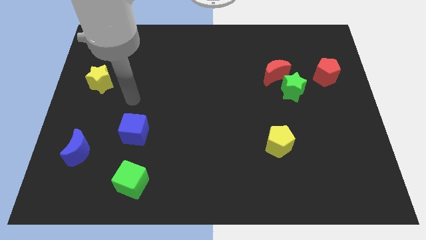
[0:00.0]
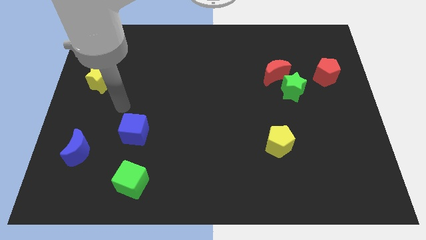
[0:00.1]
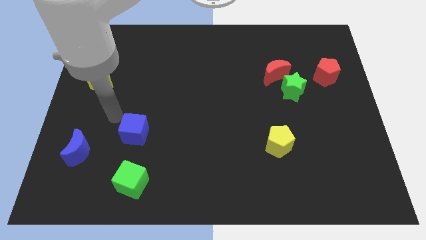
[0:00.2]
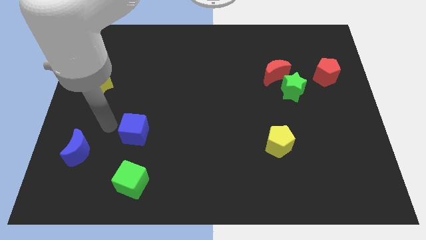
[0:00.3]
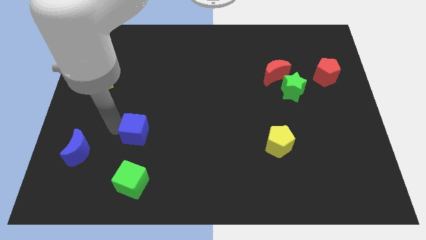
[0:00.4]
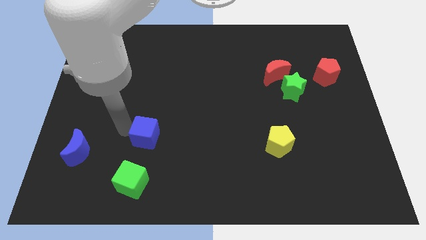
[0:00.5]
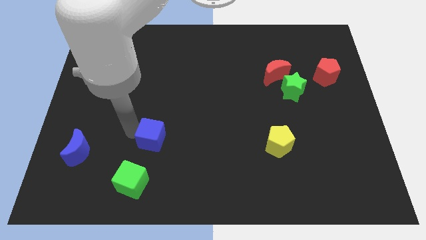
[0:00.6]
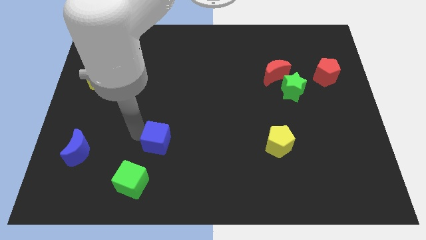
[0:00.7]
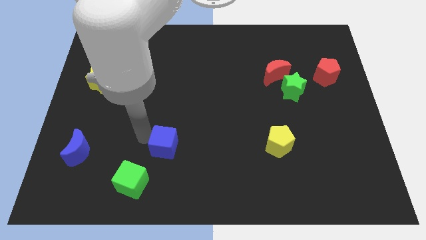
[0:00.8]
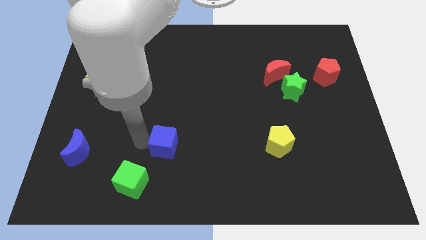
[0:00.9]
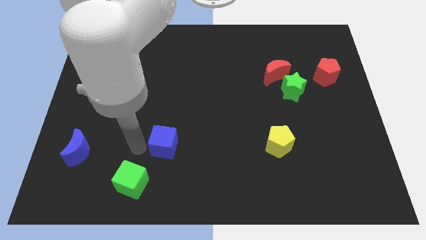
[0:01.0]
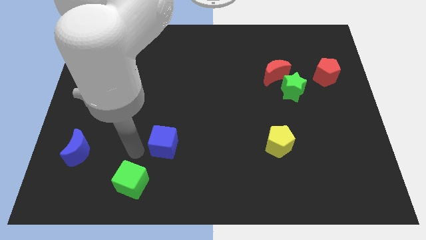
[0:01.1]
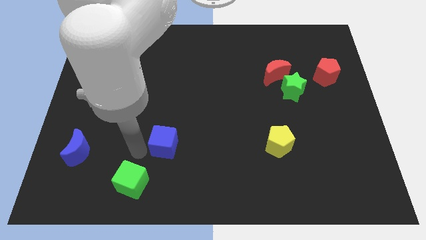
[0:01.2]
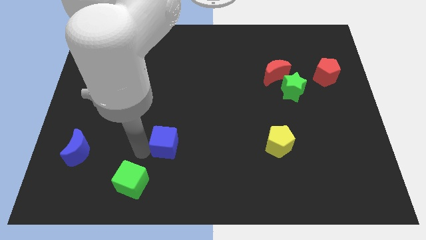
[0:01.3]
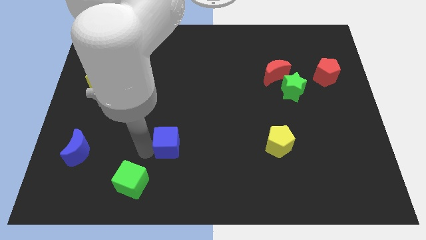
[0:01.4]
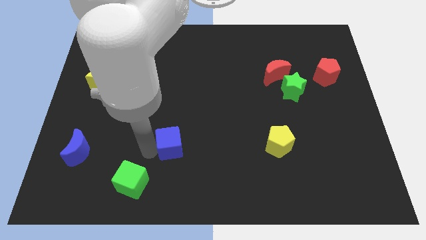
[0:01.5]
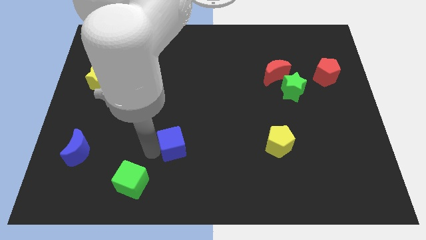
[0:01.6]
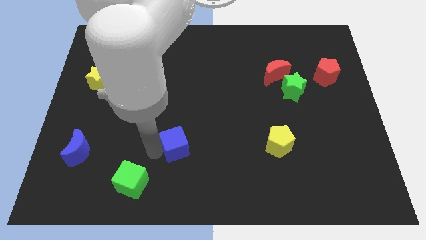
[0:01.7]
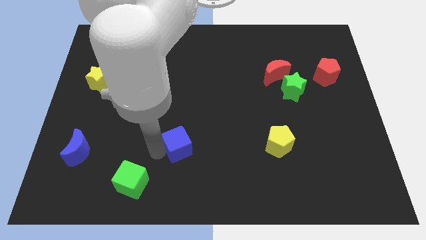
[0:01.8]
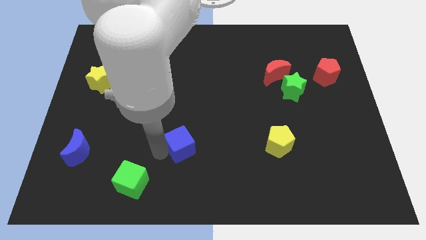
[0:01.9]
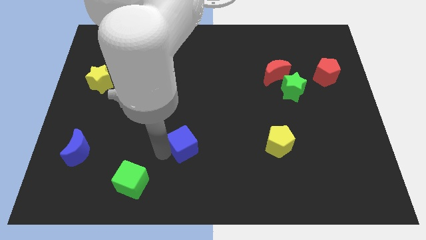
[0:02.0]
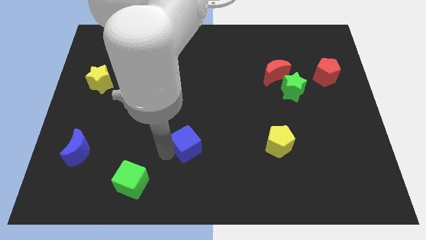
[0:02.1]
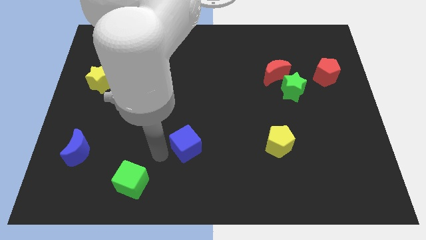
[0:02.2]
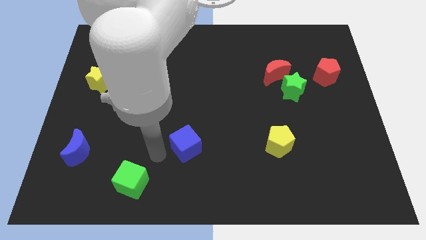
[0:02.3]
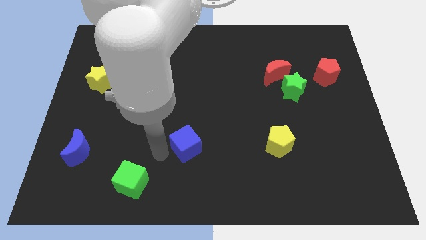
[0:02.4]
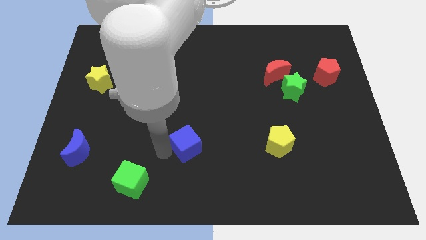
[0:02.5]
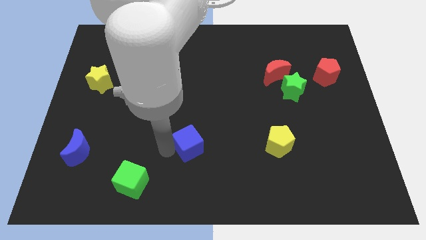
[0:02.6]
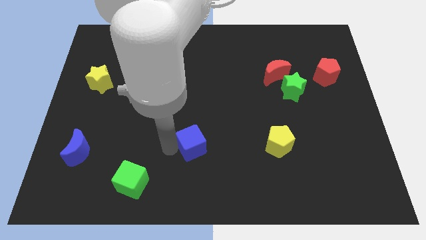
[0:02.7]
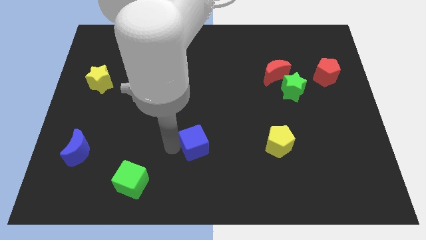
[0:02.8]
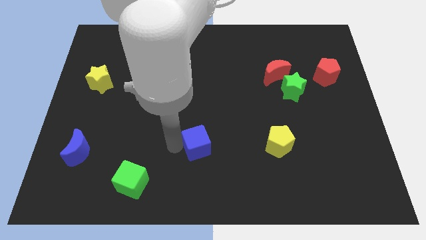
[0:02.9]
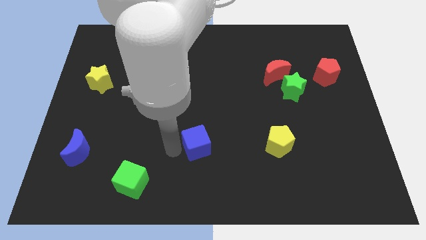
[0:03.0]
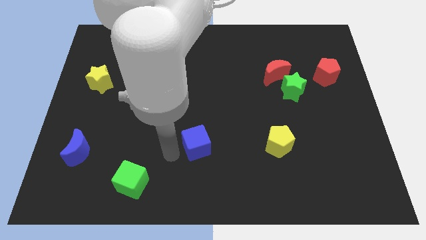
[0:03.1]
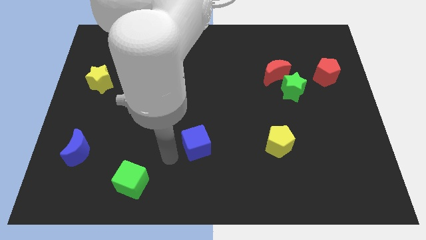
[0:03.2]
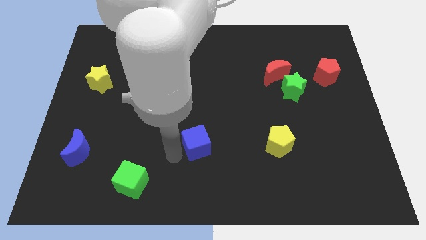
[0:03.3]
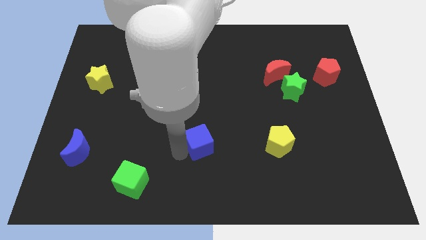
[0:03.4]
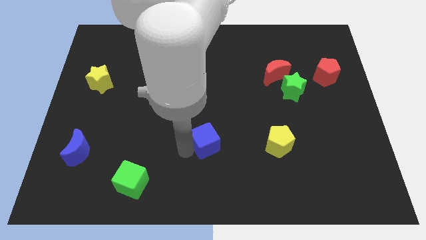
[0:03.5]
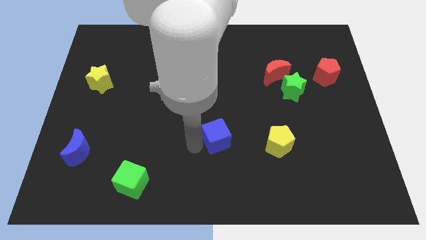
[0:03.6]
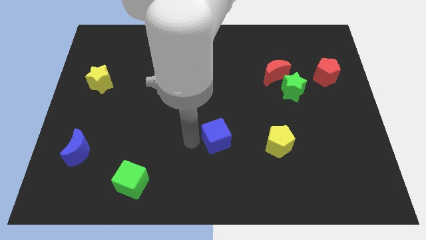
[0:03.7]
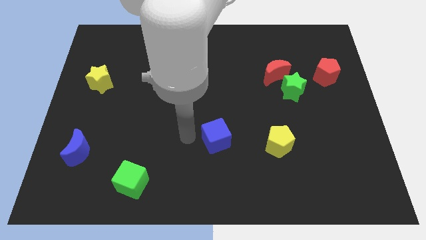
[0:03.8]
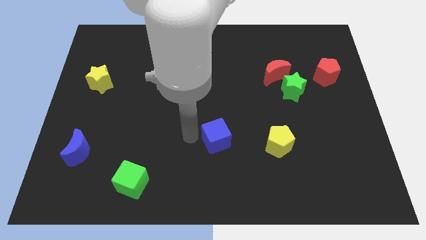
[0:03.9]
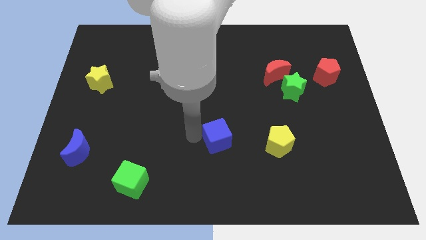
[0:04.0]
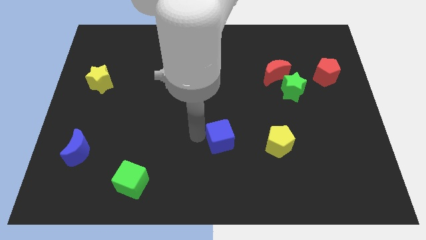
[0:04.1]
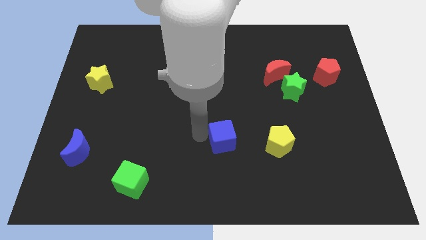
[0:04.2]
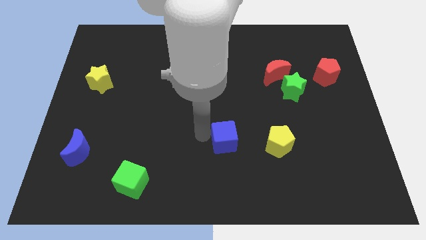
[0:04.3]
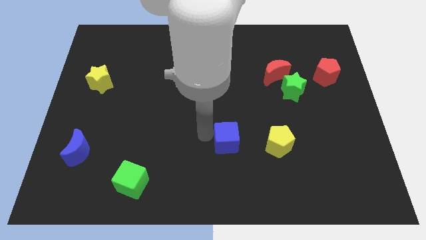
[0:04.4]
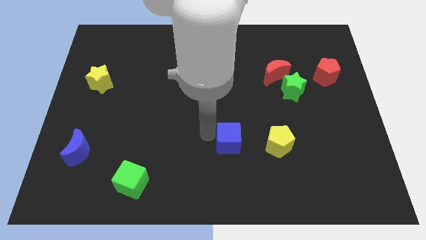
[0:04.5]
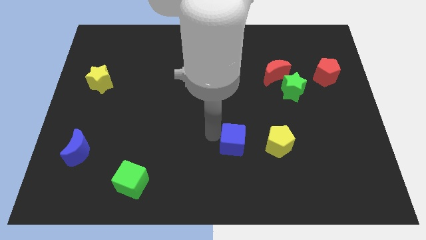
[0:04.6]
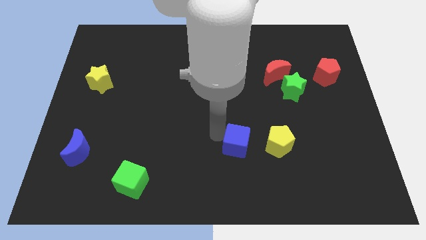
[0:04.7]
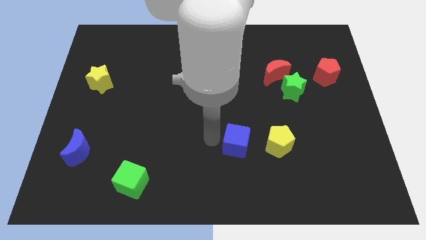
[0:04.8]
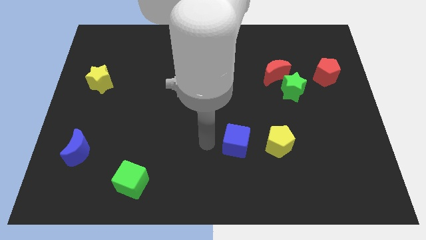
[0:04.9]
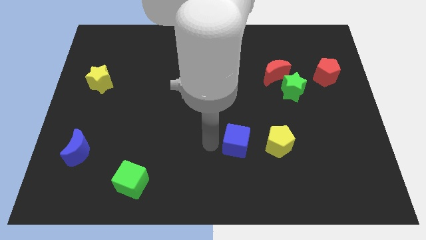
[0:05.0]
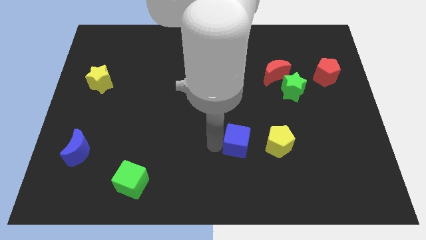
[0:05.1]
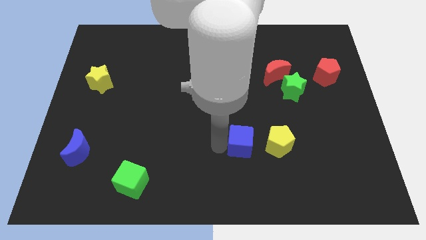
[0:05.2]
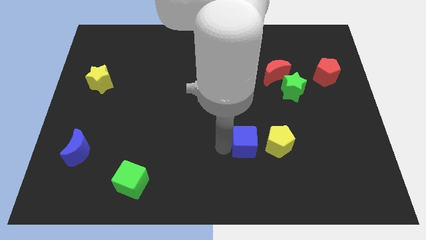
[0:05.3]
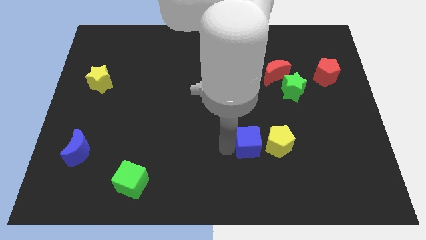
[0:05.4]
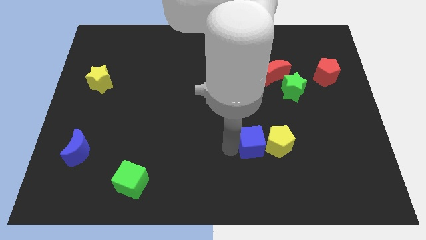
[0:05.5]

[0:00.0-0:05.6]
move the blue cube to the yellow pentagon

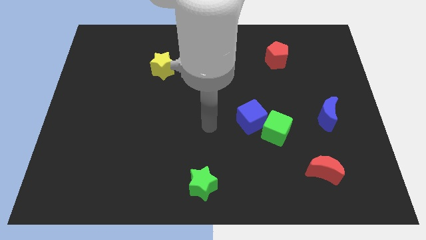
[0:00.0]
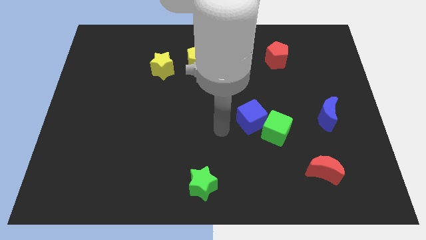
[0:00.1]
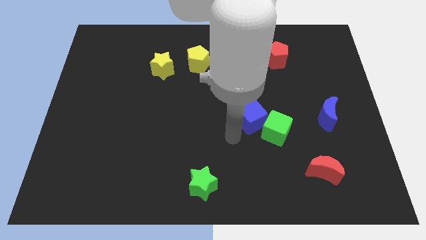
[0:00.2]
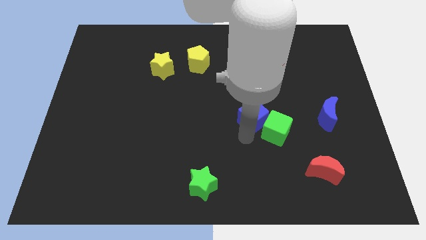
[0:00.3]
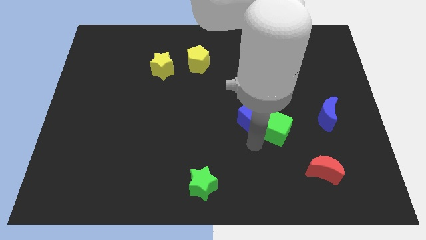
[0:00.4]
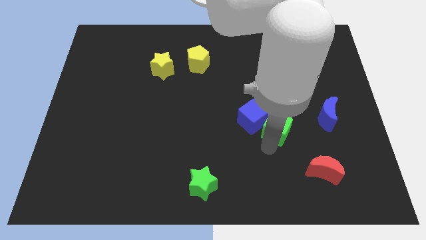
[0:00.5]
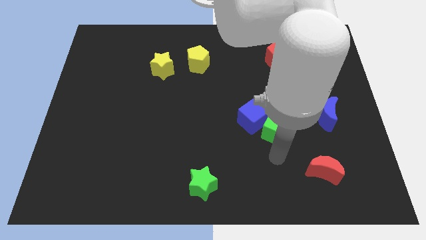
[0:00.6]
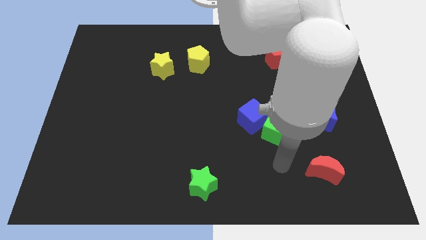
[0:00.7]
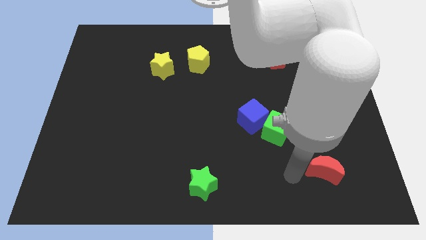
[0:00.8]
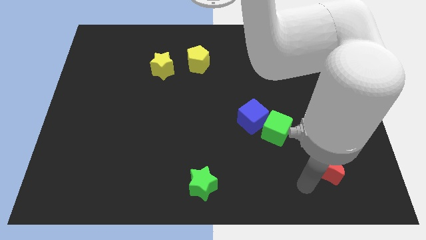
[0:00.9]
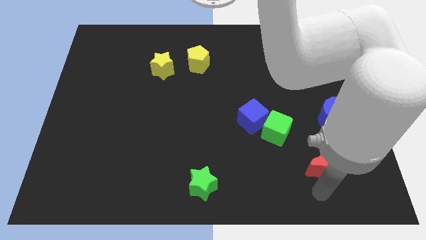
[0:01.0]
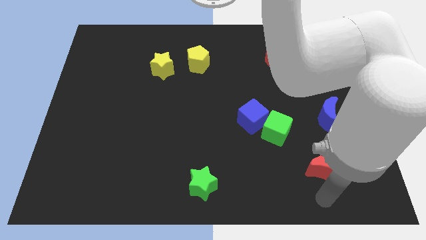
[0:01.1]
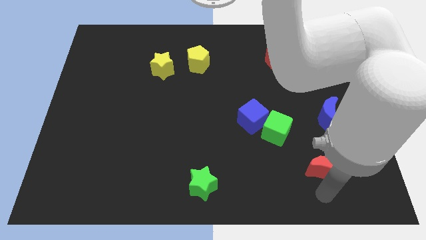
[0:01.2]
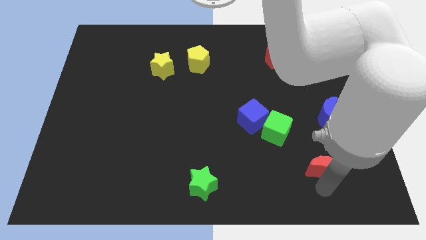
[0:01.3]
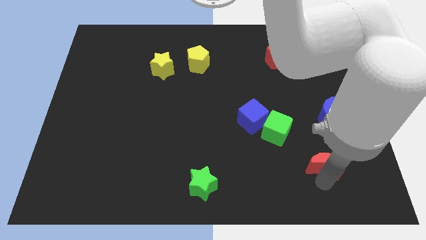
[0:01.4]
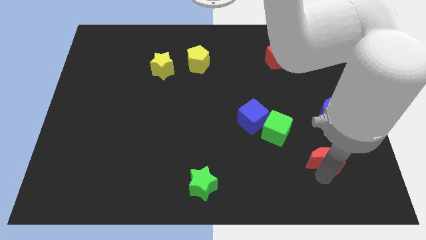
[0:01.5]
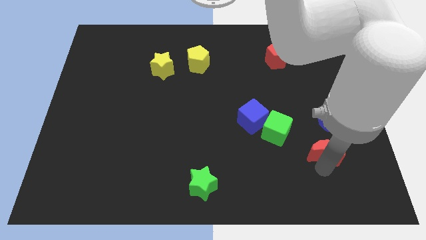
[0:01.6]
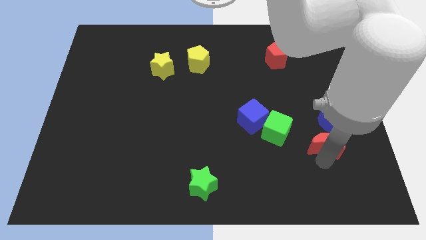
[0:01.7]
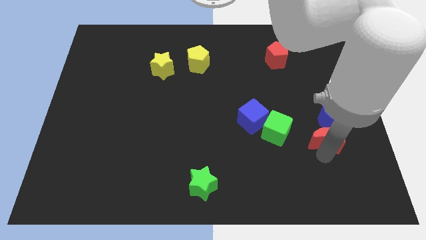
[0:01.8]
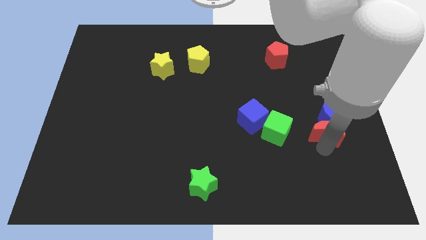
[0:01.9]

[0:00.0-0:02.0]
slide the red moon to the blue moon

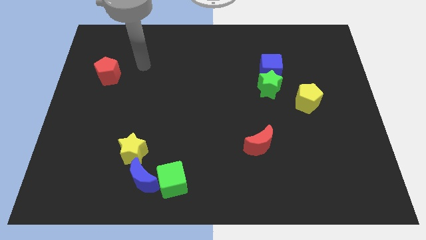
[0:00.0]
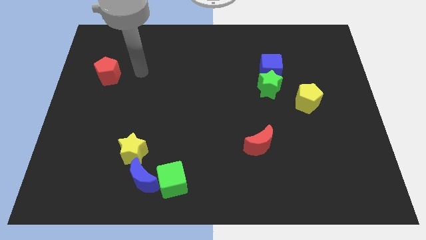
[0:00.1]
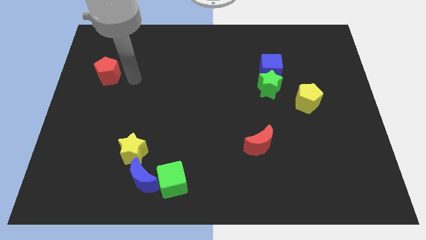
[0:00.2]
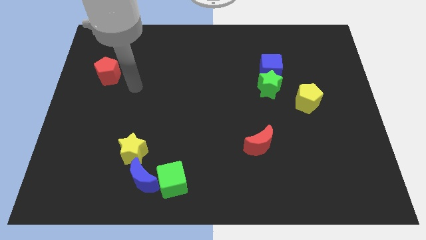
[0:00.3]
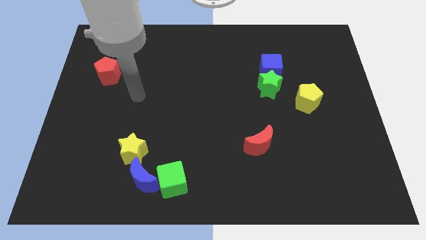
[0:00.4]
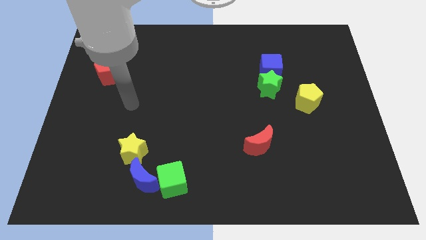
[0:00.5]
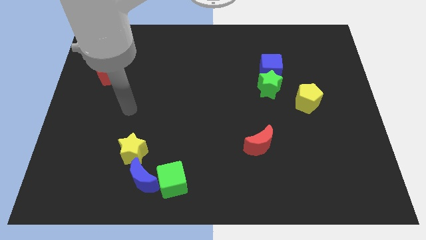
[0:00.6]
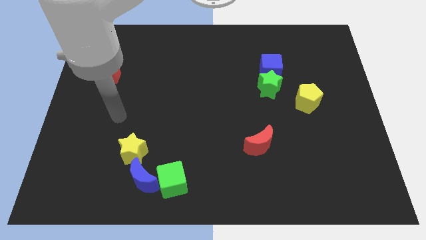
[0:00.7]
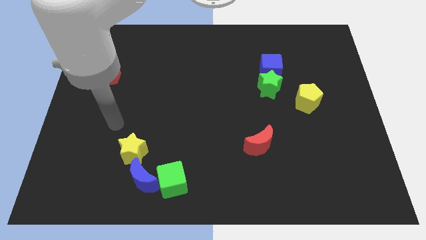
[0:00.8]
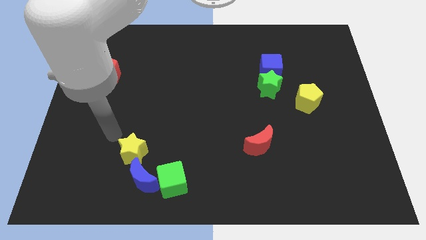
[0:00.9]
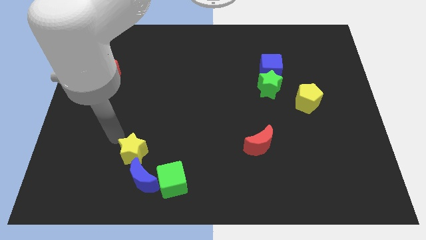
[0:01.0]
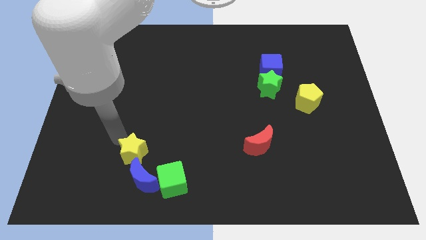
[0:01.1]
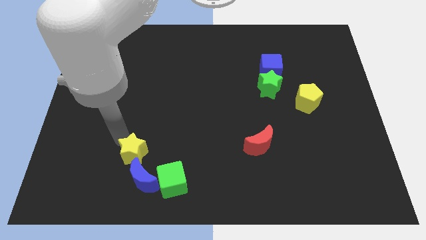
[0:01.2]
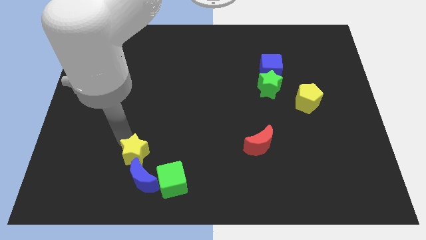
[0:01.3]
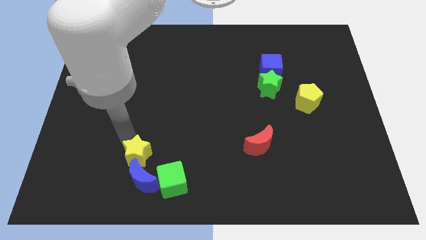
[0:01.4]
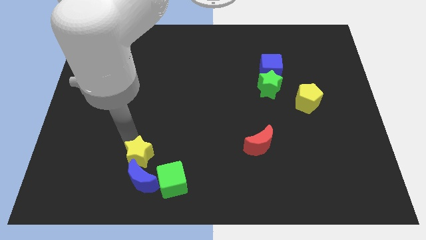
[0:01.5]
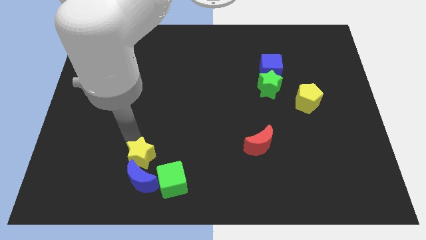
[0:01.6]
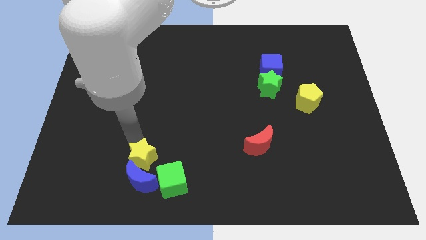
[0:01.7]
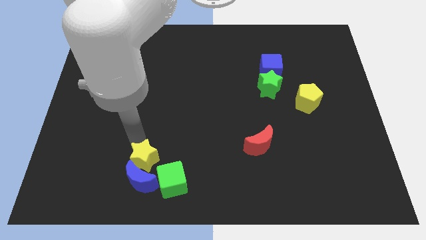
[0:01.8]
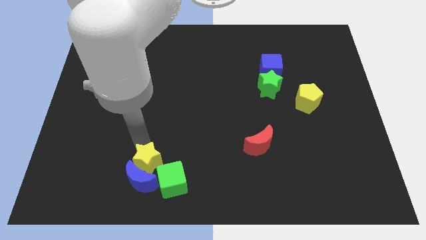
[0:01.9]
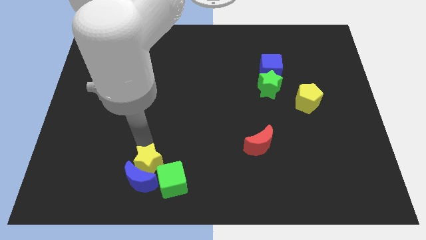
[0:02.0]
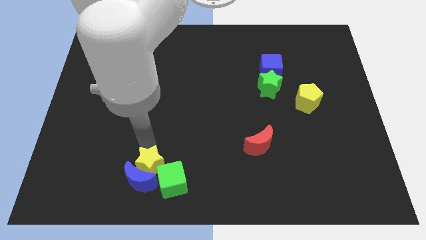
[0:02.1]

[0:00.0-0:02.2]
slide the yellow star next to the green cube
